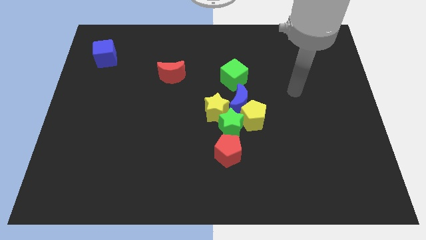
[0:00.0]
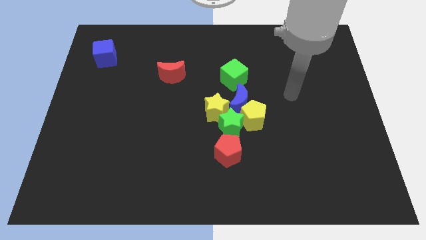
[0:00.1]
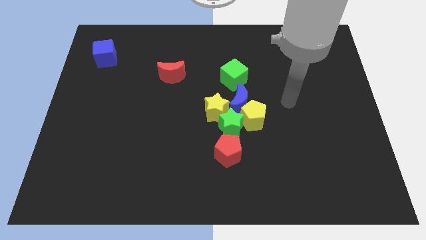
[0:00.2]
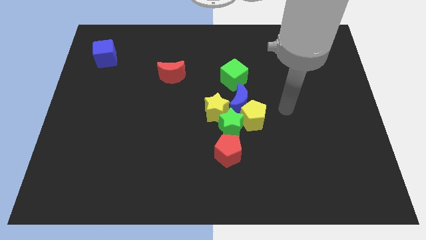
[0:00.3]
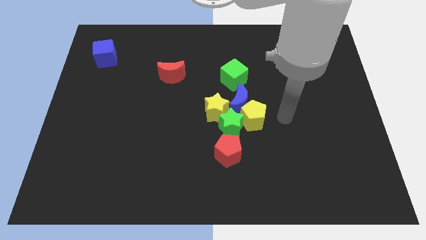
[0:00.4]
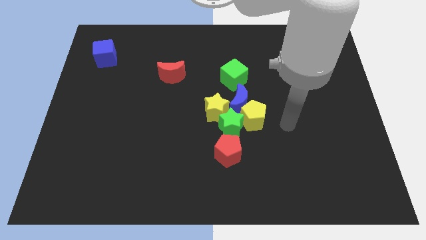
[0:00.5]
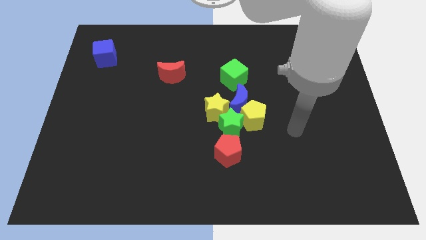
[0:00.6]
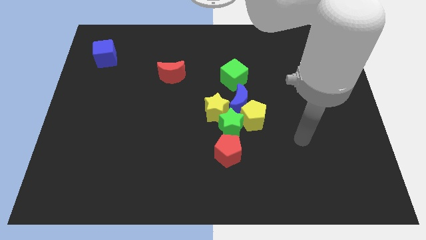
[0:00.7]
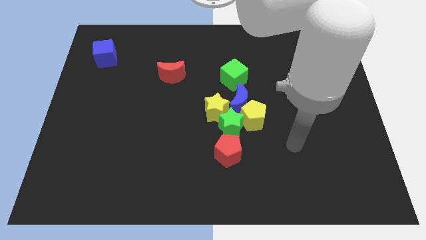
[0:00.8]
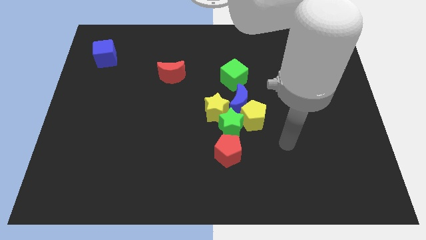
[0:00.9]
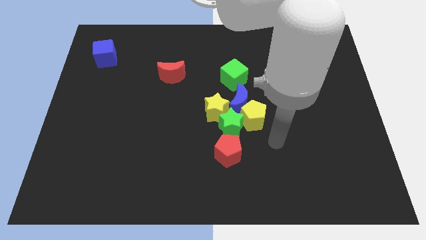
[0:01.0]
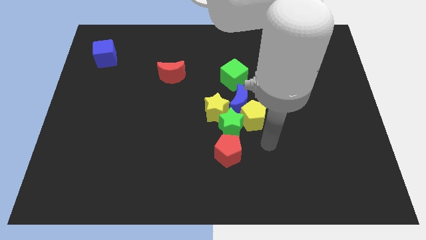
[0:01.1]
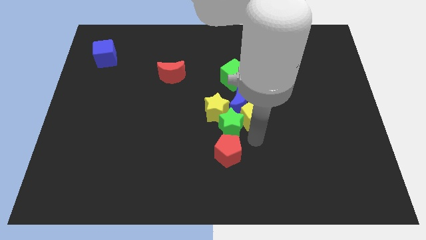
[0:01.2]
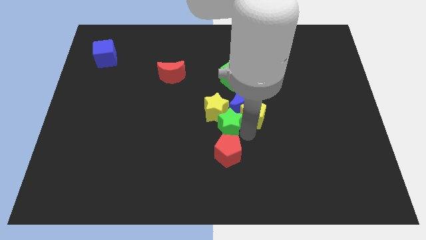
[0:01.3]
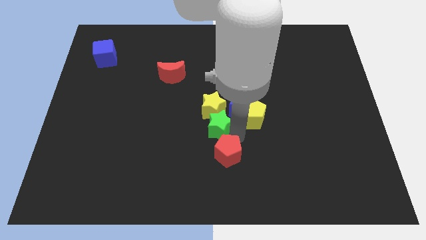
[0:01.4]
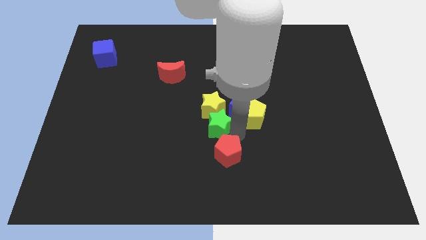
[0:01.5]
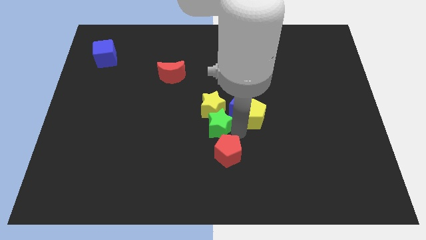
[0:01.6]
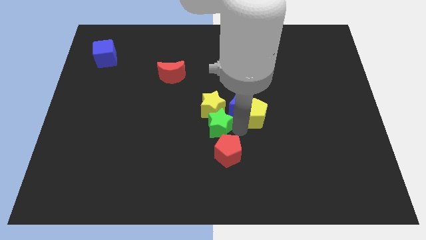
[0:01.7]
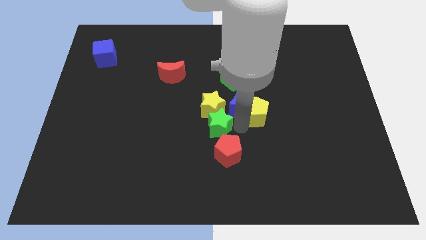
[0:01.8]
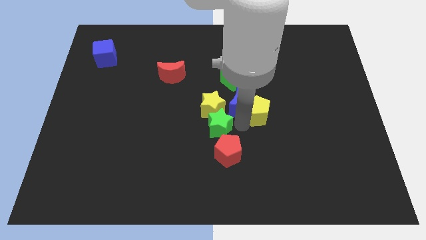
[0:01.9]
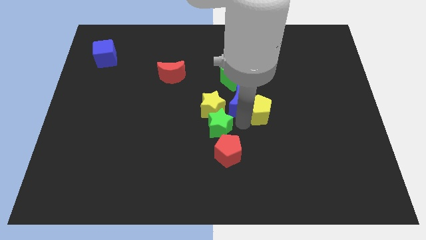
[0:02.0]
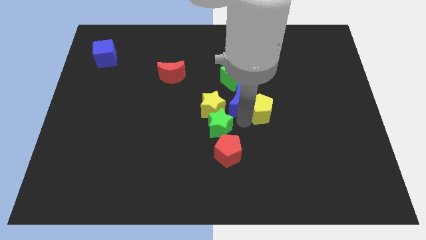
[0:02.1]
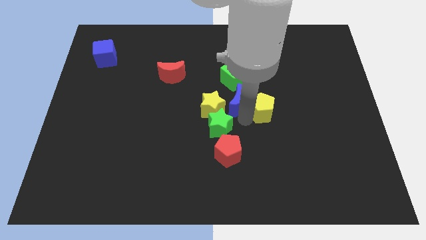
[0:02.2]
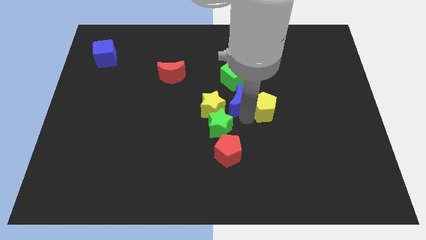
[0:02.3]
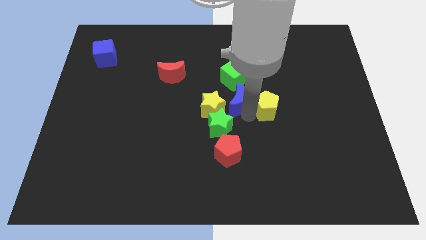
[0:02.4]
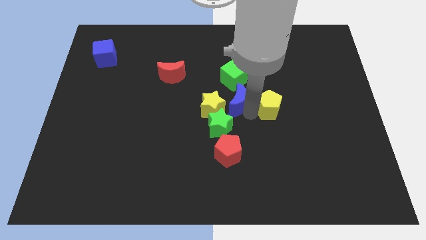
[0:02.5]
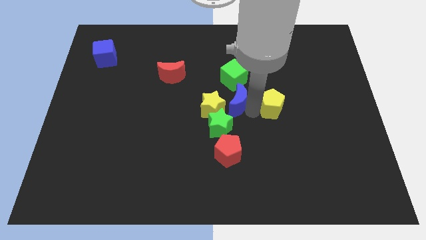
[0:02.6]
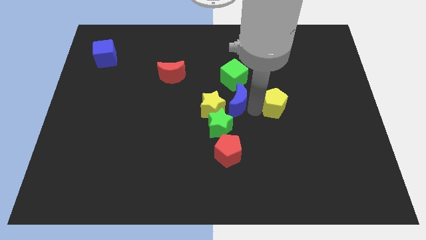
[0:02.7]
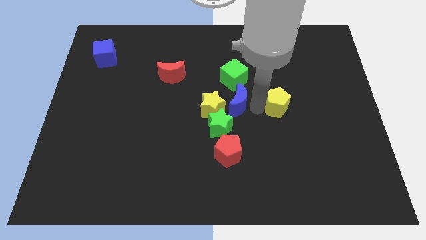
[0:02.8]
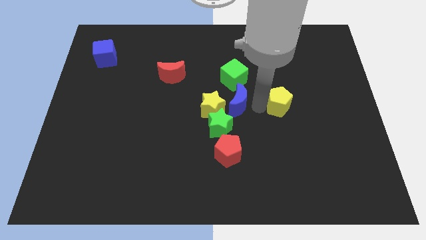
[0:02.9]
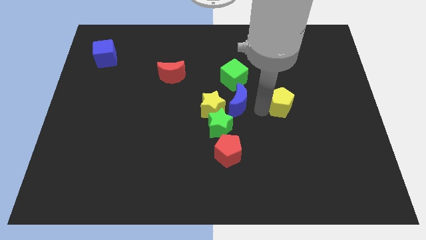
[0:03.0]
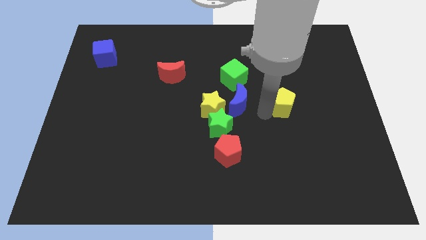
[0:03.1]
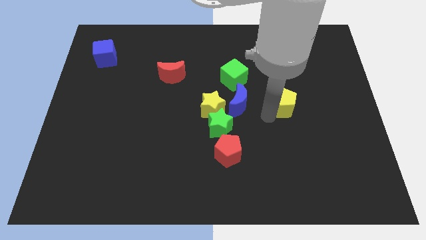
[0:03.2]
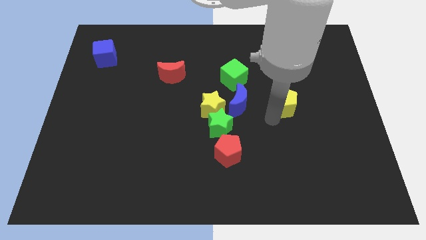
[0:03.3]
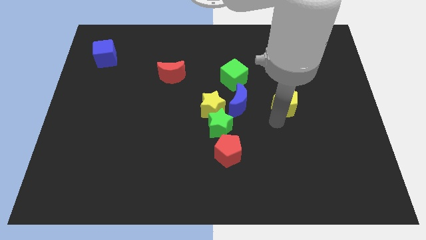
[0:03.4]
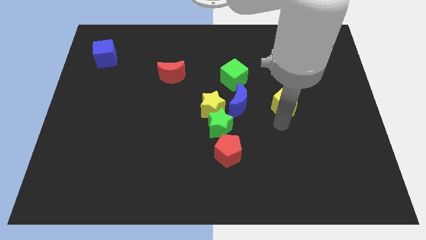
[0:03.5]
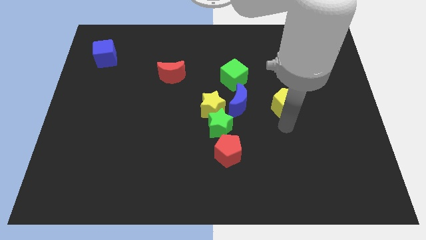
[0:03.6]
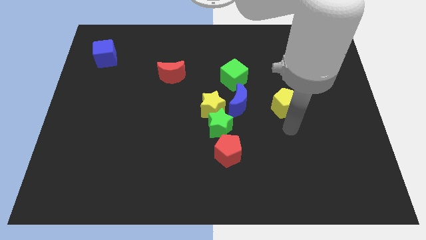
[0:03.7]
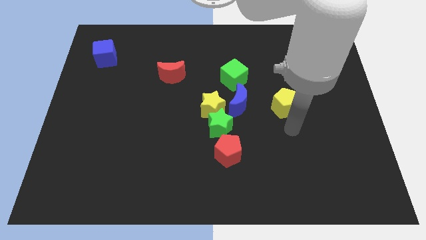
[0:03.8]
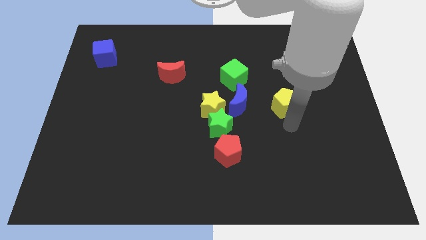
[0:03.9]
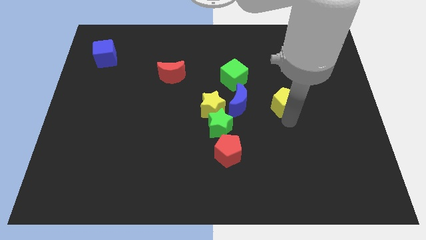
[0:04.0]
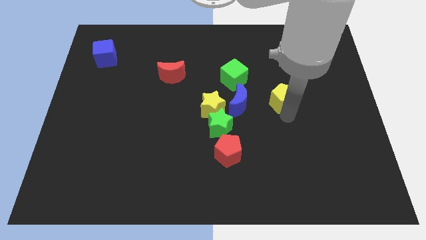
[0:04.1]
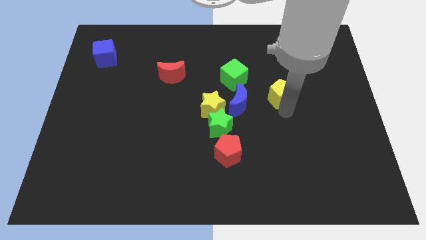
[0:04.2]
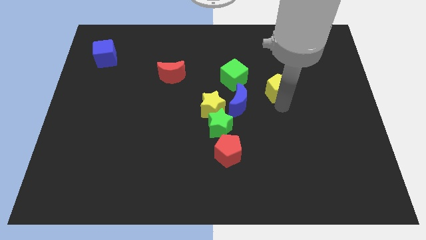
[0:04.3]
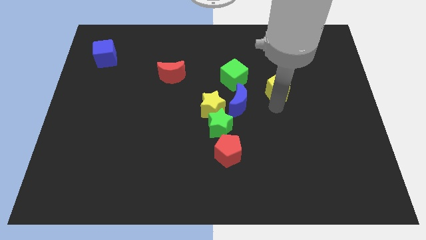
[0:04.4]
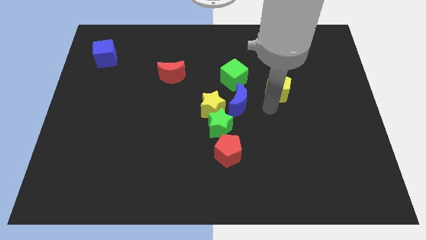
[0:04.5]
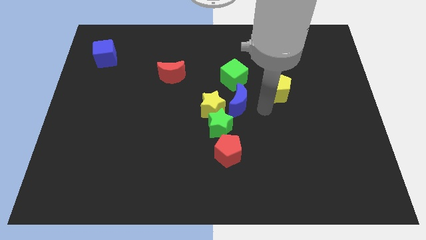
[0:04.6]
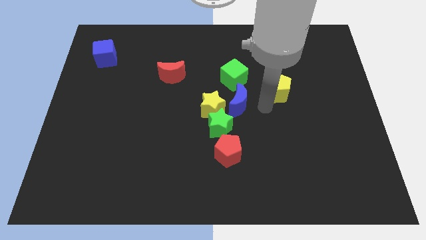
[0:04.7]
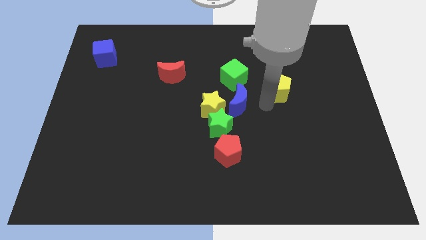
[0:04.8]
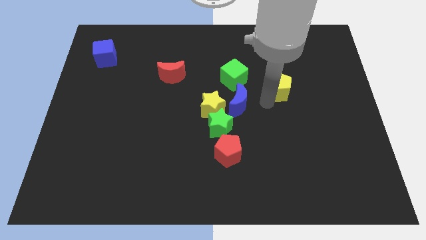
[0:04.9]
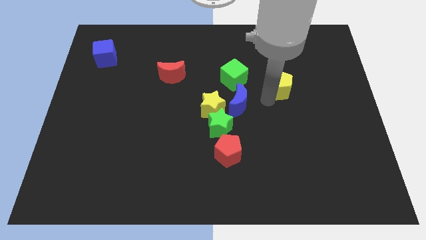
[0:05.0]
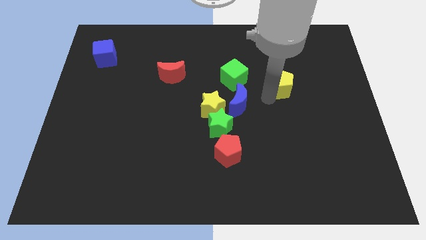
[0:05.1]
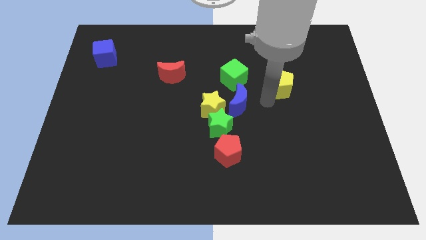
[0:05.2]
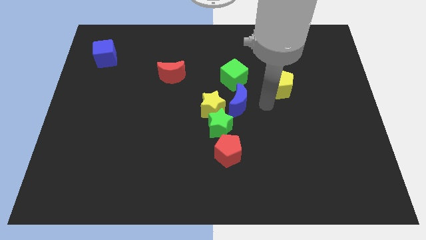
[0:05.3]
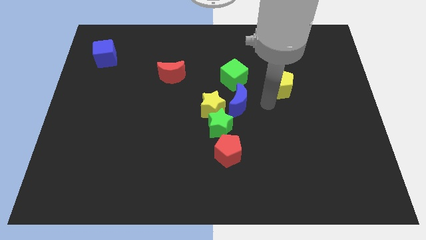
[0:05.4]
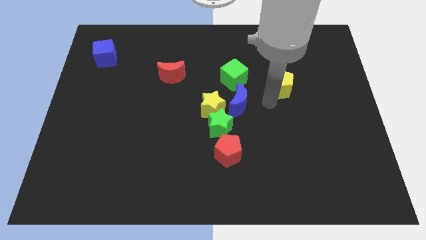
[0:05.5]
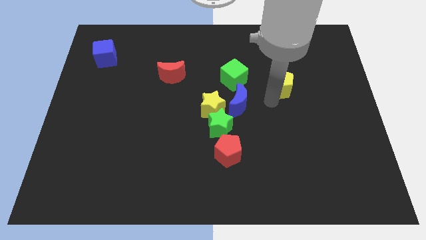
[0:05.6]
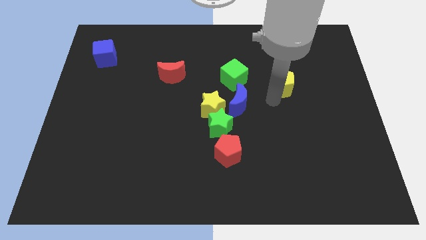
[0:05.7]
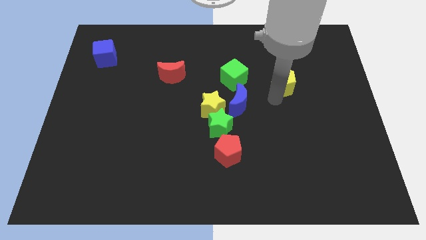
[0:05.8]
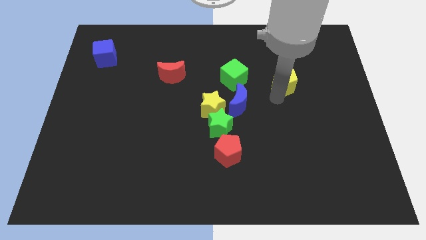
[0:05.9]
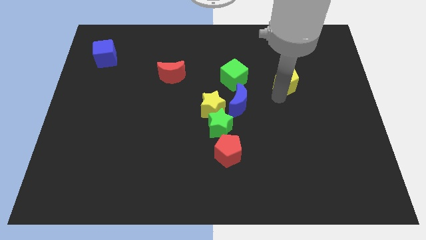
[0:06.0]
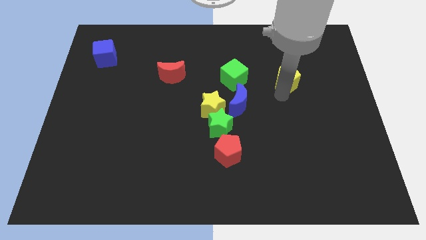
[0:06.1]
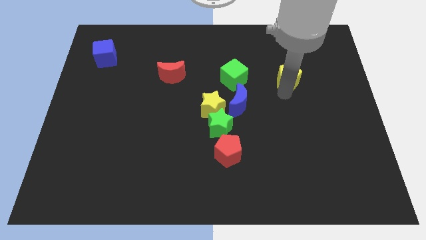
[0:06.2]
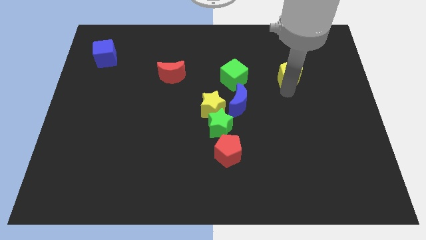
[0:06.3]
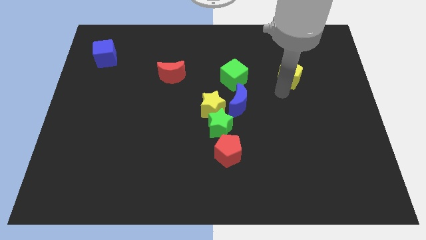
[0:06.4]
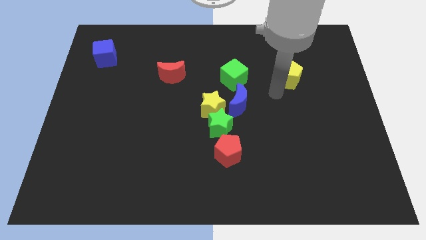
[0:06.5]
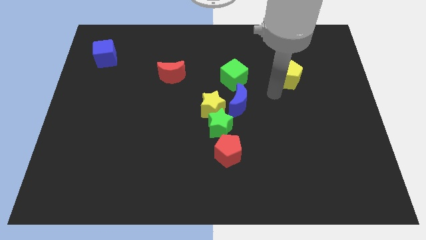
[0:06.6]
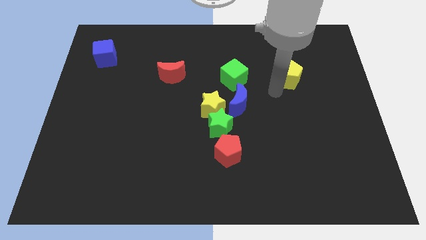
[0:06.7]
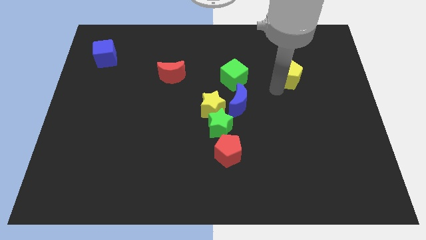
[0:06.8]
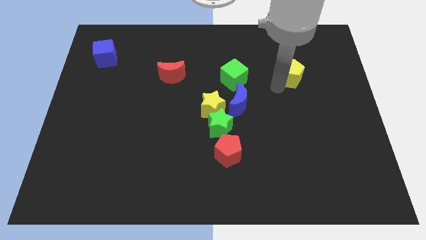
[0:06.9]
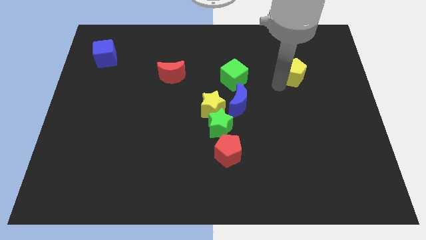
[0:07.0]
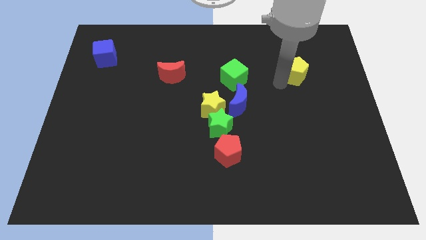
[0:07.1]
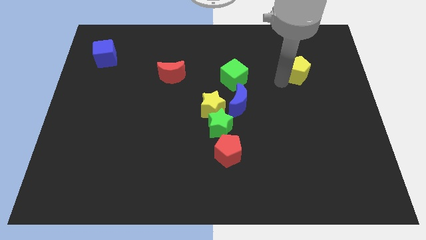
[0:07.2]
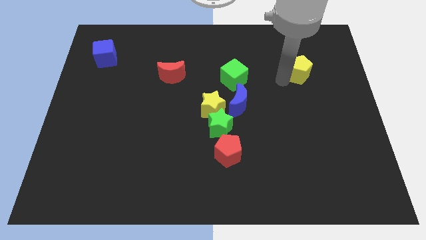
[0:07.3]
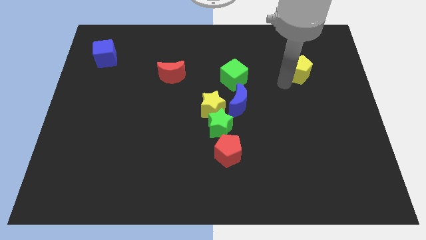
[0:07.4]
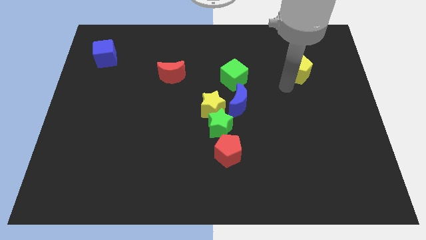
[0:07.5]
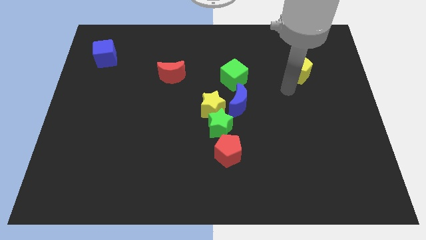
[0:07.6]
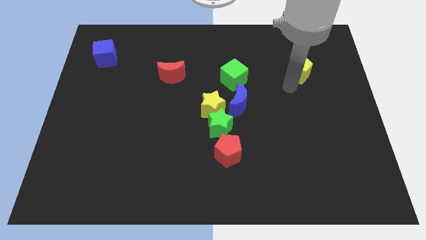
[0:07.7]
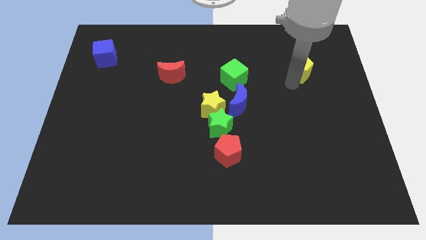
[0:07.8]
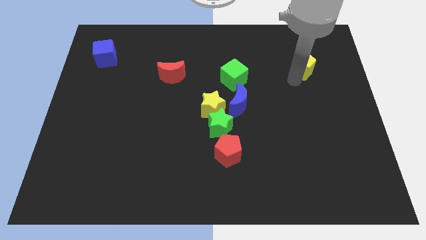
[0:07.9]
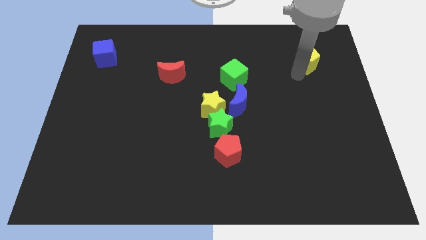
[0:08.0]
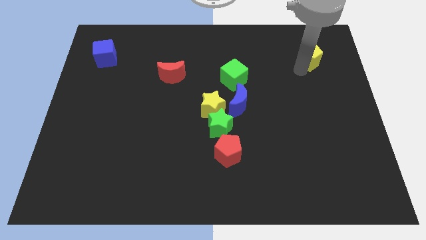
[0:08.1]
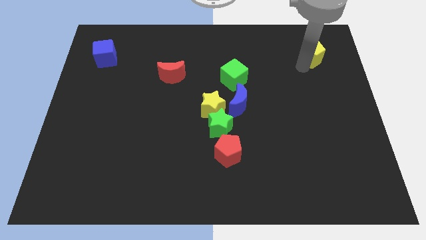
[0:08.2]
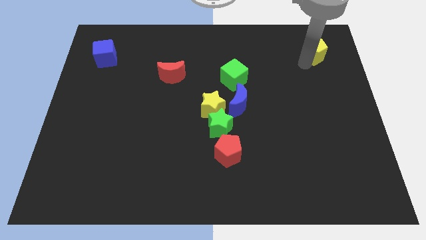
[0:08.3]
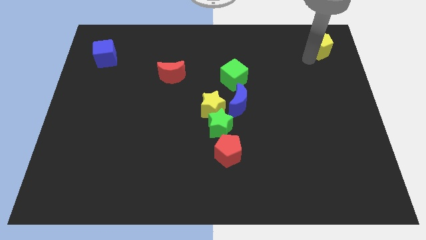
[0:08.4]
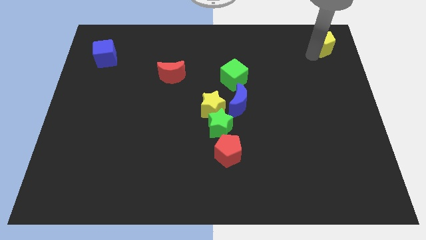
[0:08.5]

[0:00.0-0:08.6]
put the yellow pentagon to the top right
